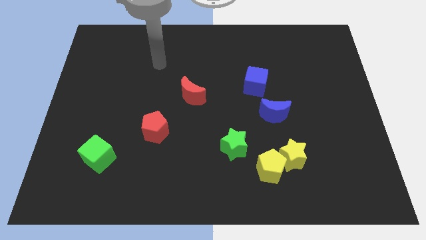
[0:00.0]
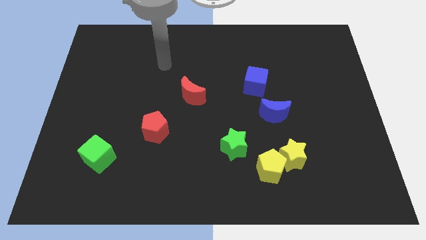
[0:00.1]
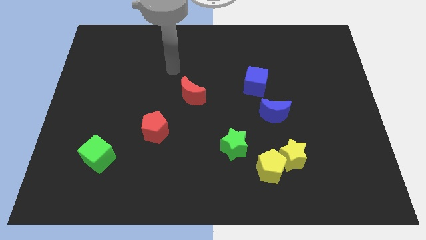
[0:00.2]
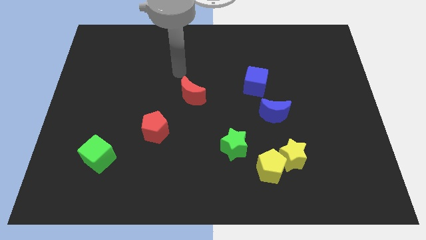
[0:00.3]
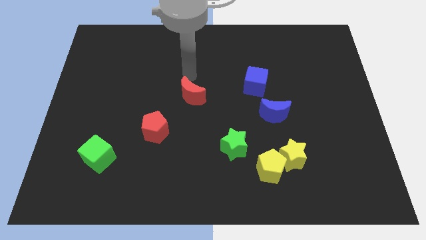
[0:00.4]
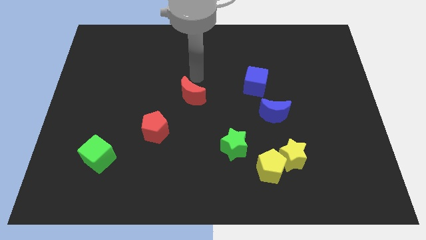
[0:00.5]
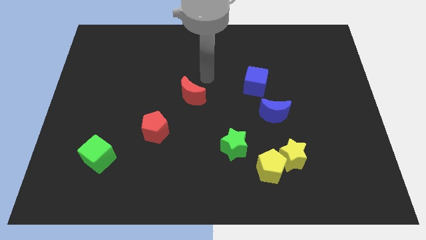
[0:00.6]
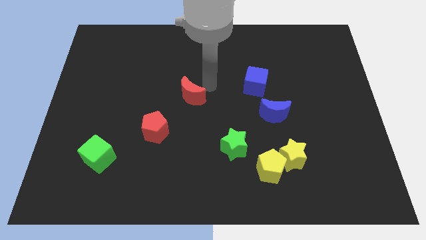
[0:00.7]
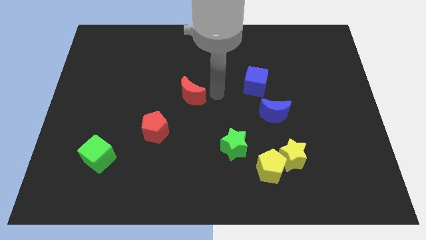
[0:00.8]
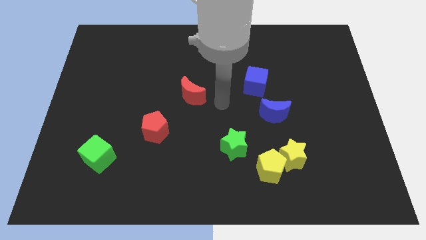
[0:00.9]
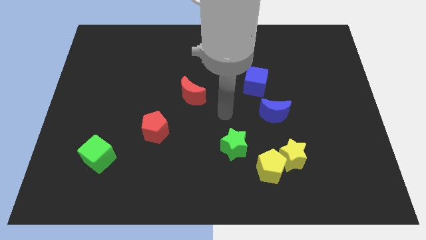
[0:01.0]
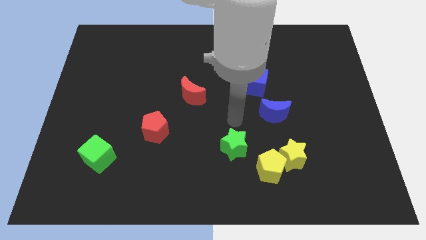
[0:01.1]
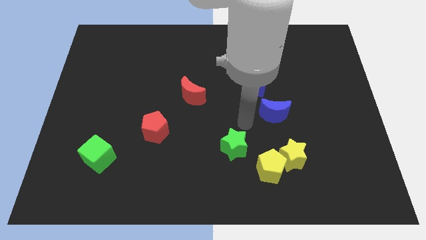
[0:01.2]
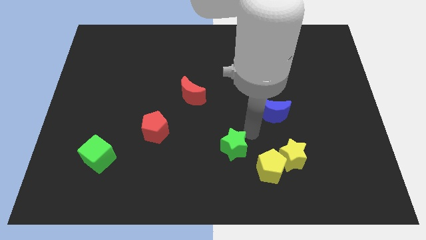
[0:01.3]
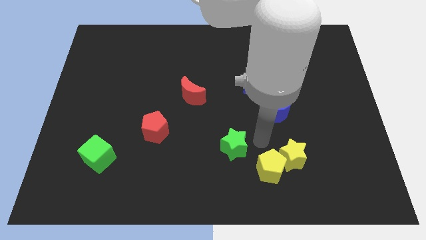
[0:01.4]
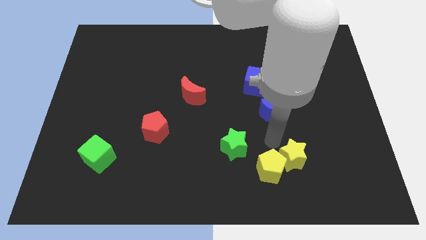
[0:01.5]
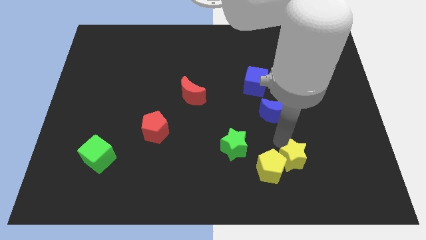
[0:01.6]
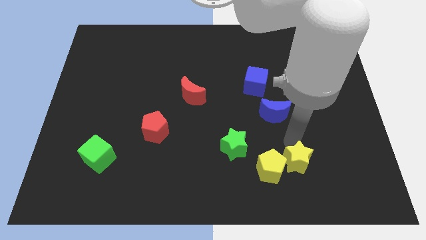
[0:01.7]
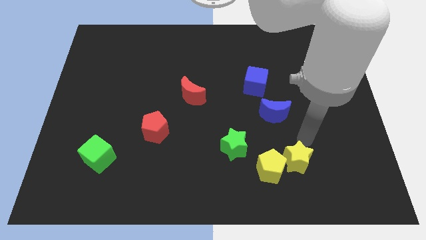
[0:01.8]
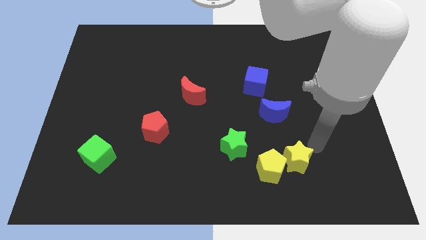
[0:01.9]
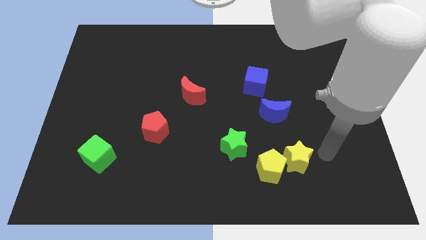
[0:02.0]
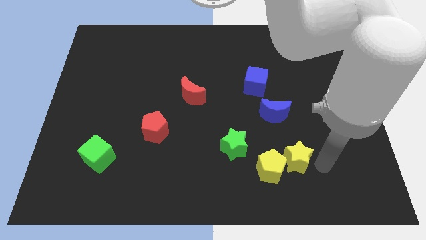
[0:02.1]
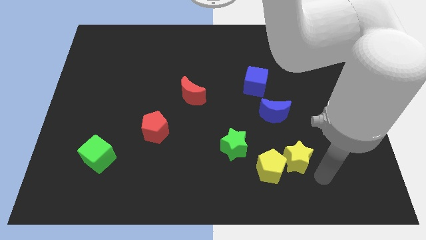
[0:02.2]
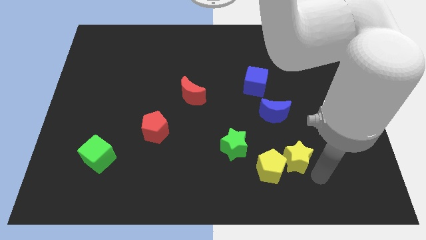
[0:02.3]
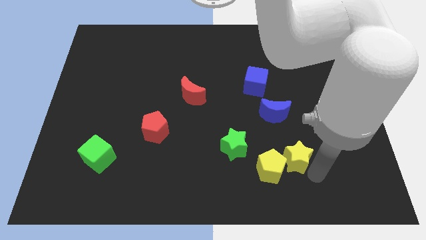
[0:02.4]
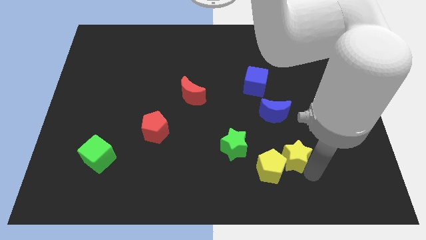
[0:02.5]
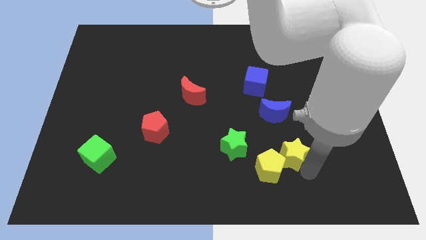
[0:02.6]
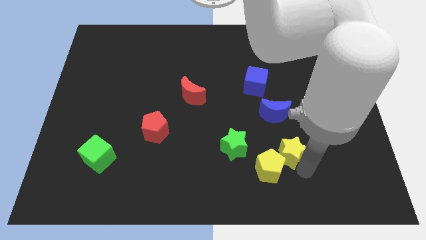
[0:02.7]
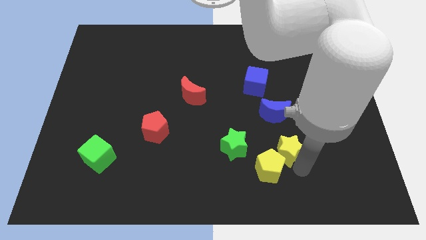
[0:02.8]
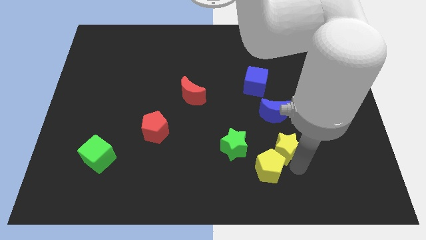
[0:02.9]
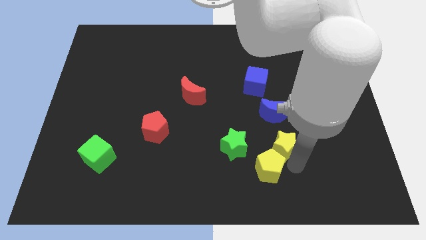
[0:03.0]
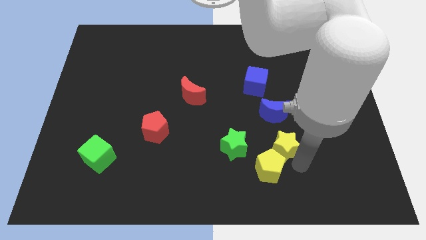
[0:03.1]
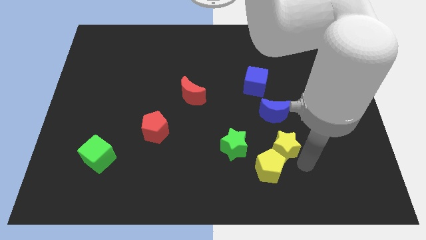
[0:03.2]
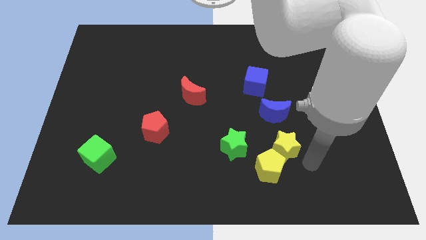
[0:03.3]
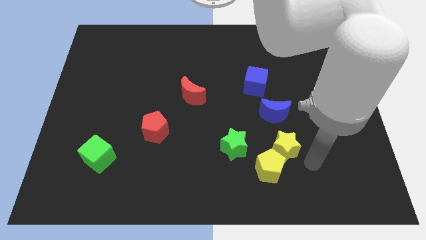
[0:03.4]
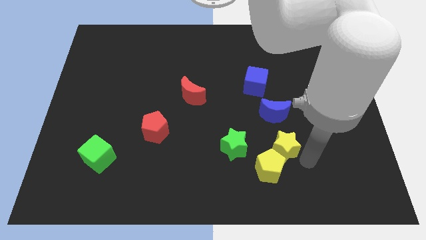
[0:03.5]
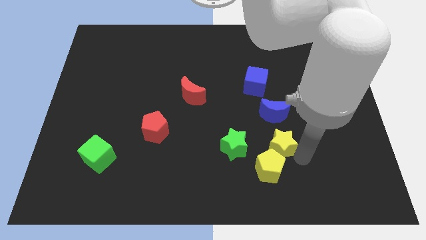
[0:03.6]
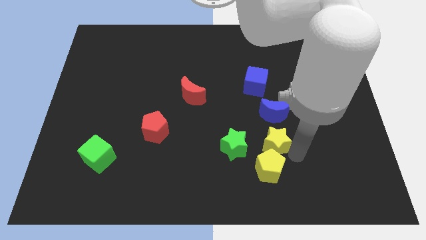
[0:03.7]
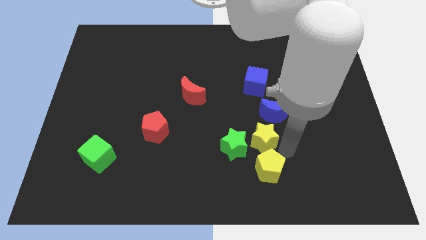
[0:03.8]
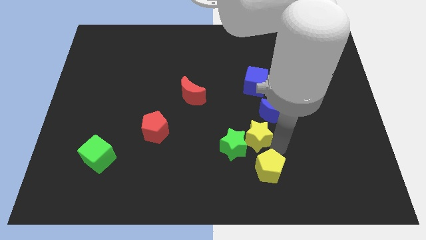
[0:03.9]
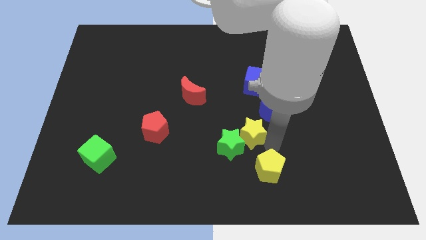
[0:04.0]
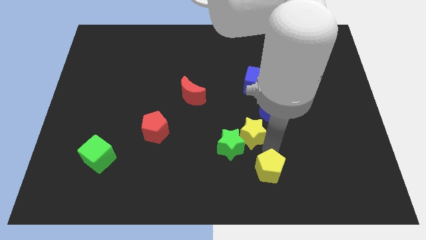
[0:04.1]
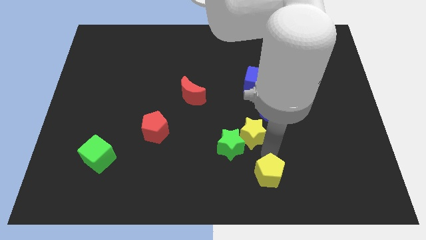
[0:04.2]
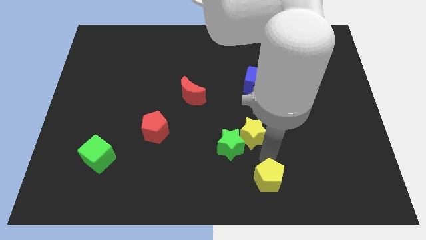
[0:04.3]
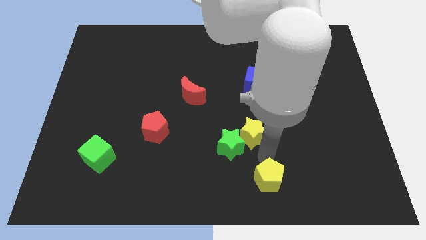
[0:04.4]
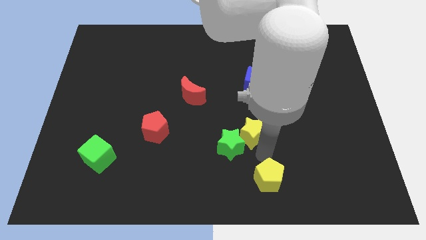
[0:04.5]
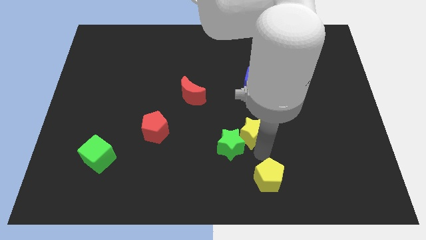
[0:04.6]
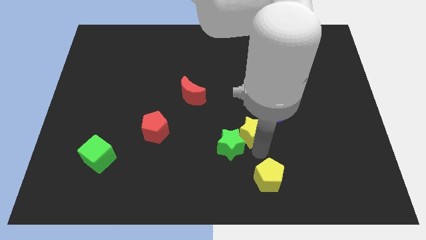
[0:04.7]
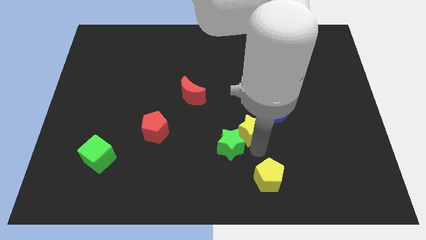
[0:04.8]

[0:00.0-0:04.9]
move the yellow star to the center

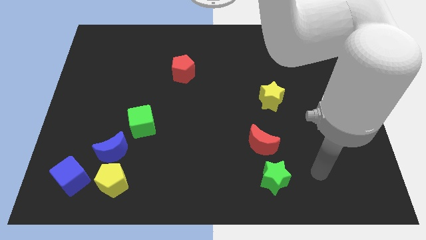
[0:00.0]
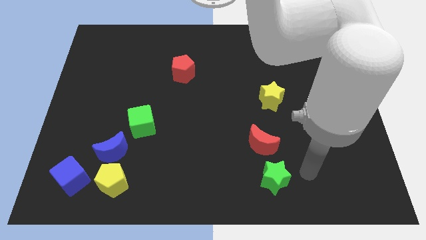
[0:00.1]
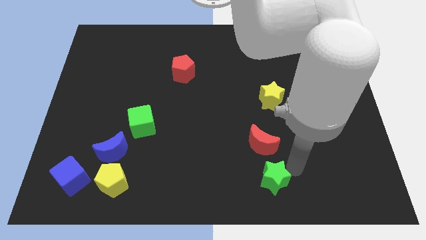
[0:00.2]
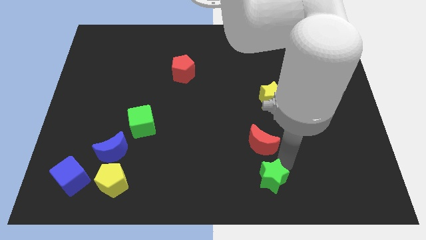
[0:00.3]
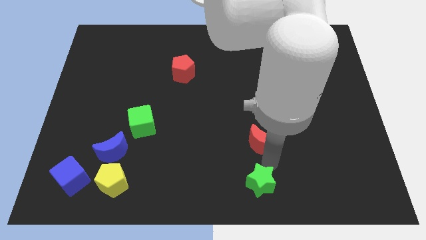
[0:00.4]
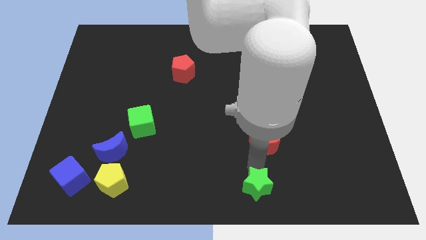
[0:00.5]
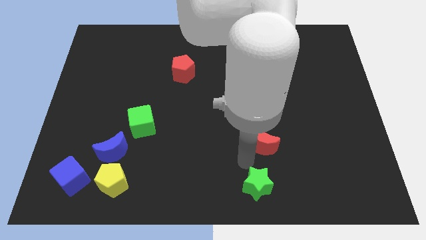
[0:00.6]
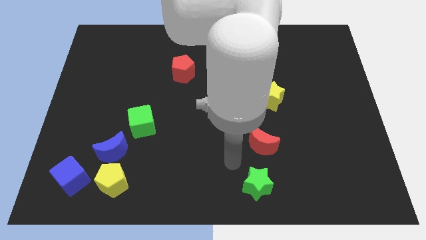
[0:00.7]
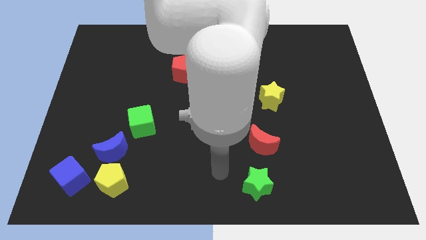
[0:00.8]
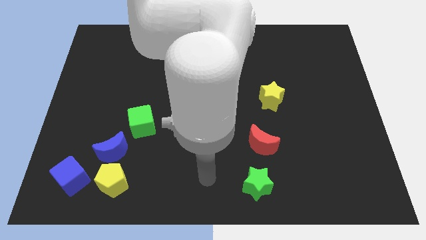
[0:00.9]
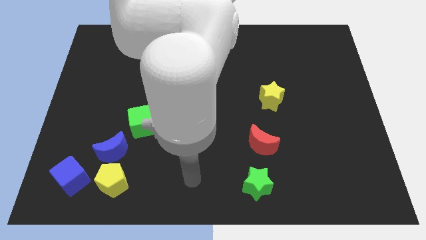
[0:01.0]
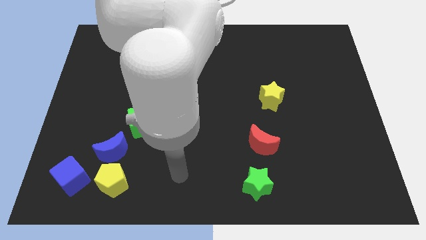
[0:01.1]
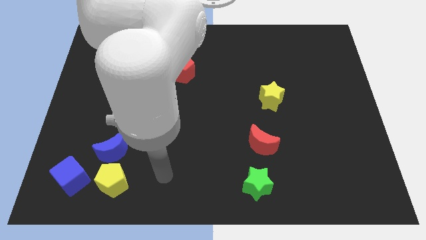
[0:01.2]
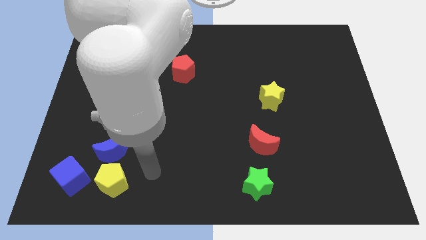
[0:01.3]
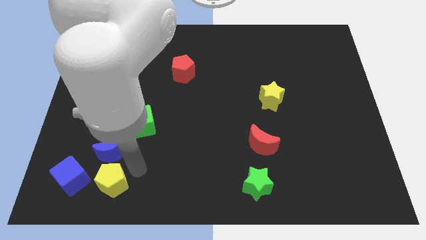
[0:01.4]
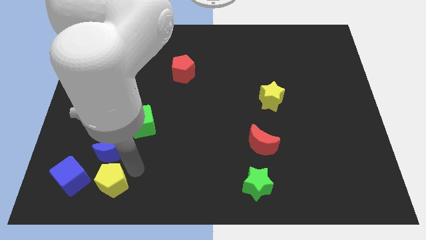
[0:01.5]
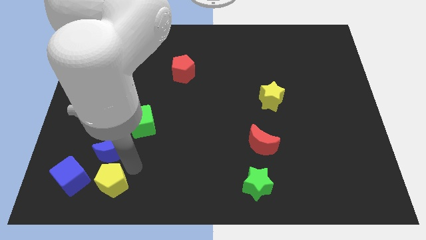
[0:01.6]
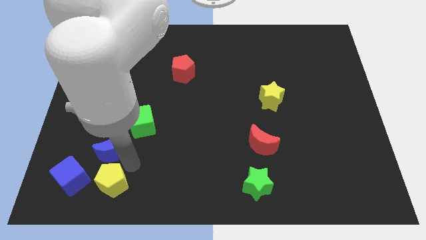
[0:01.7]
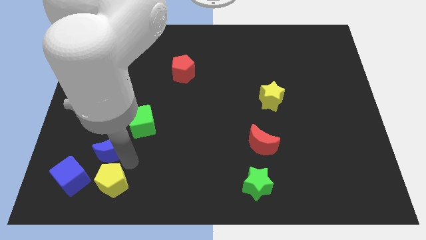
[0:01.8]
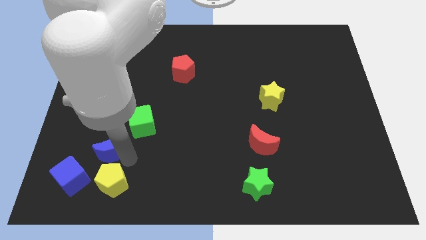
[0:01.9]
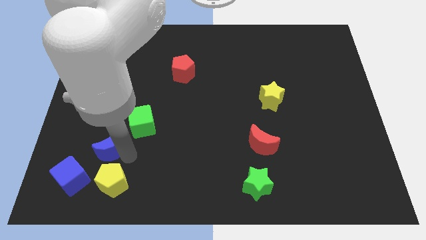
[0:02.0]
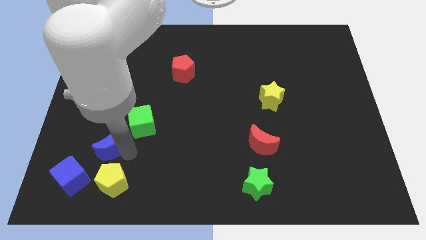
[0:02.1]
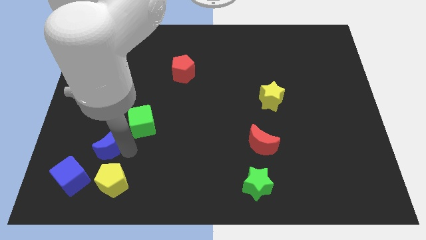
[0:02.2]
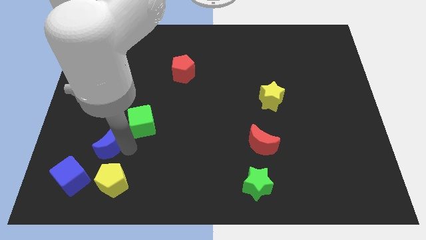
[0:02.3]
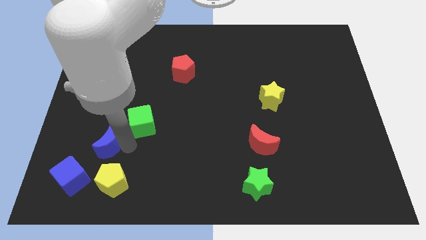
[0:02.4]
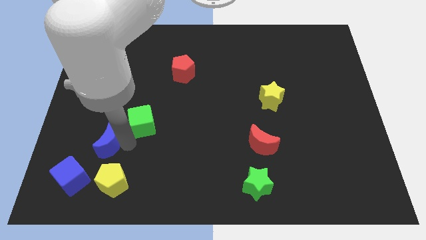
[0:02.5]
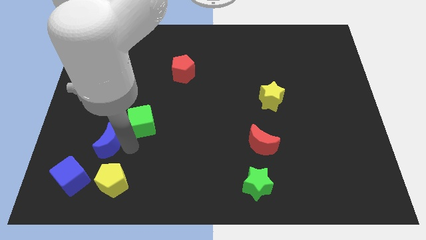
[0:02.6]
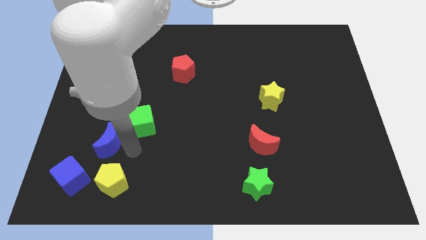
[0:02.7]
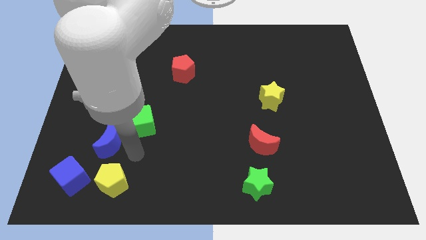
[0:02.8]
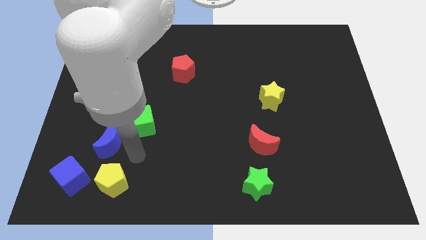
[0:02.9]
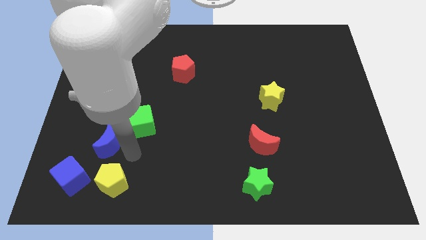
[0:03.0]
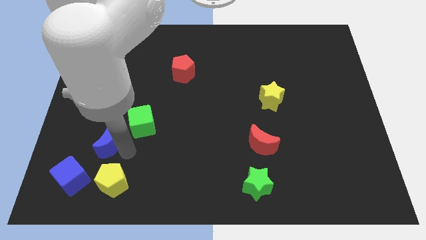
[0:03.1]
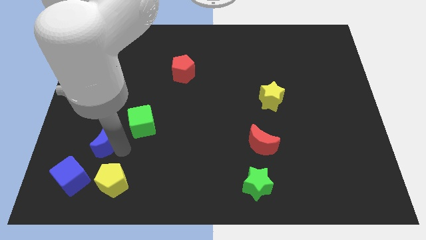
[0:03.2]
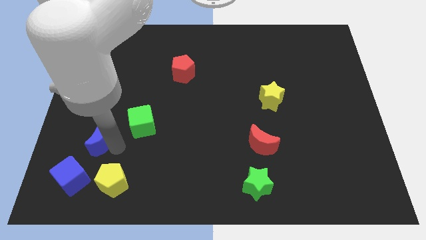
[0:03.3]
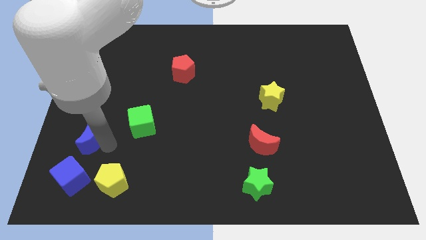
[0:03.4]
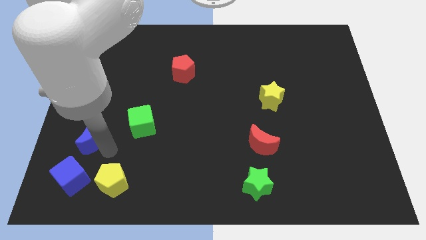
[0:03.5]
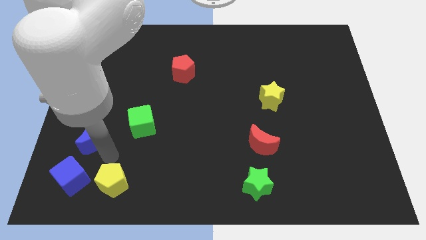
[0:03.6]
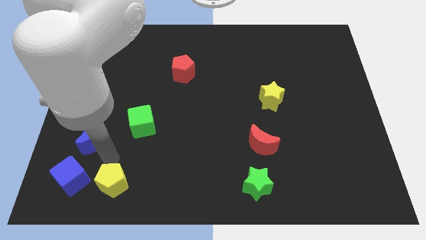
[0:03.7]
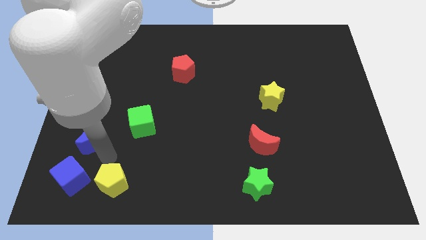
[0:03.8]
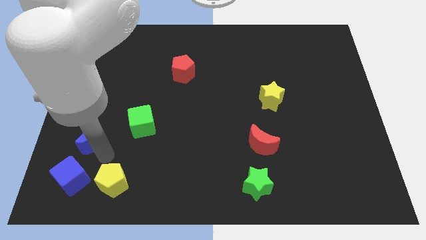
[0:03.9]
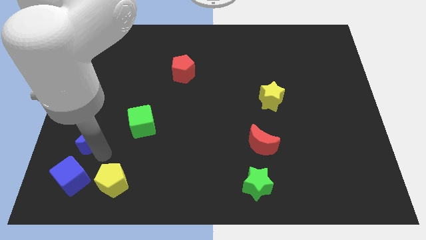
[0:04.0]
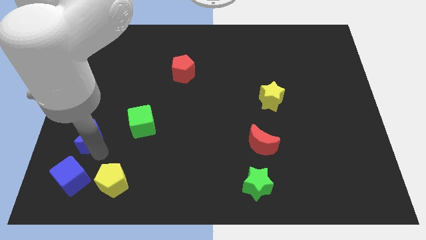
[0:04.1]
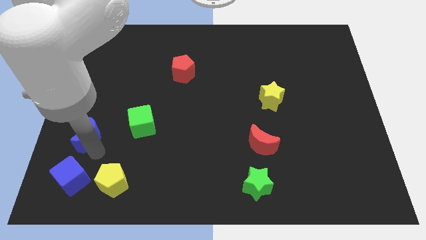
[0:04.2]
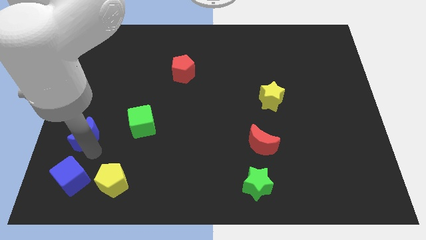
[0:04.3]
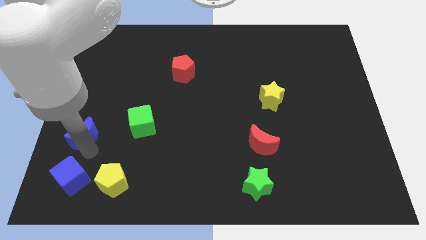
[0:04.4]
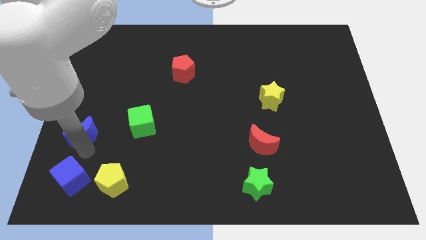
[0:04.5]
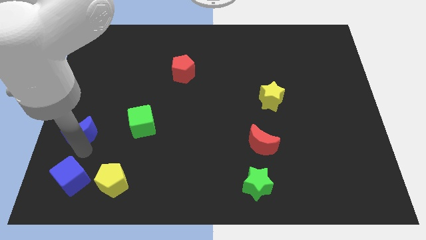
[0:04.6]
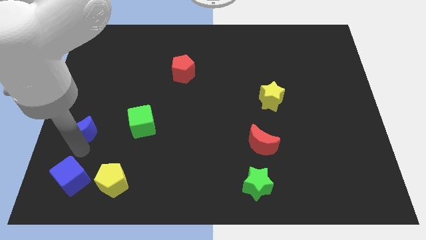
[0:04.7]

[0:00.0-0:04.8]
move the blue moon to the left side
